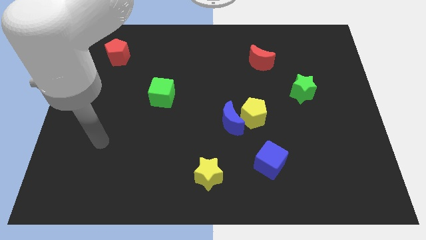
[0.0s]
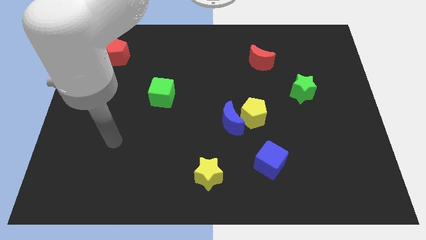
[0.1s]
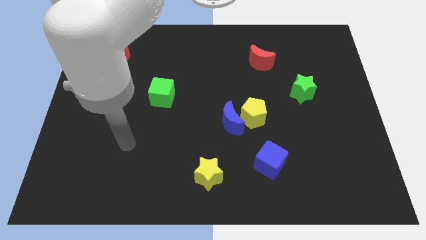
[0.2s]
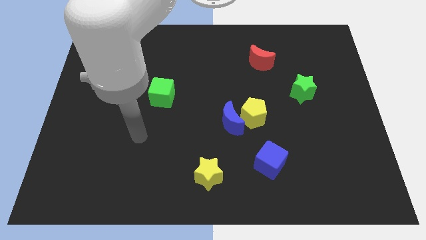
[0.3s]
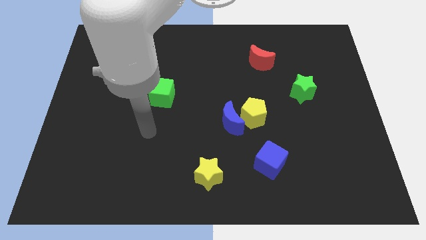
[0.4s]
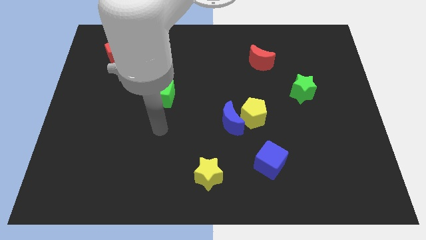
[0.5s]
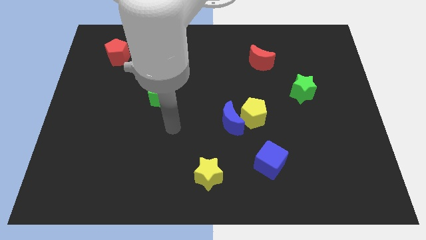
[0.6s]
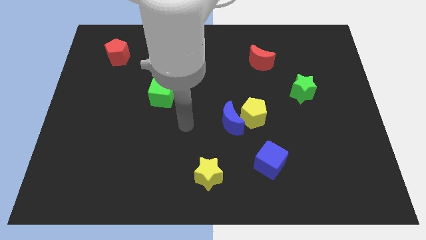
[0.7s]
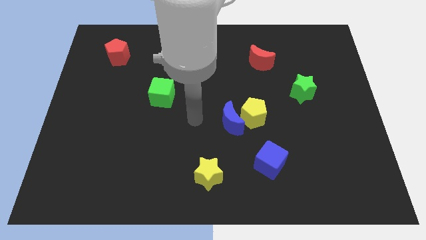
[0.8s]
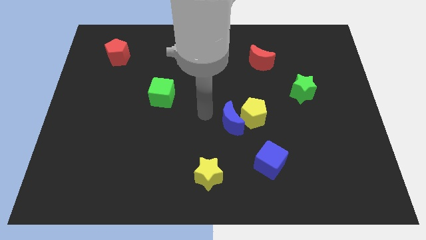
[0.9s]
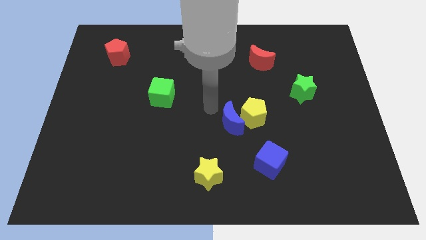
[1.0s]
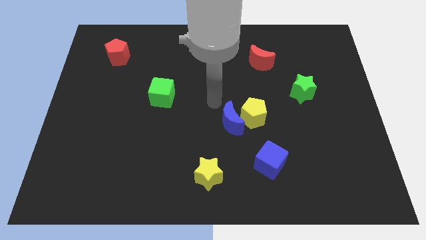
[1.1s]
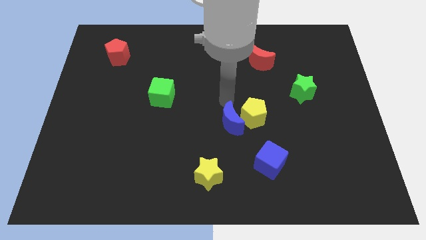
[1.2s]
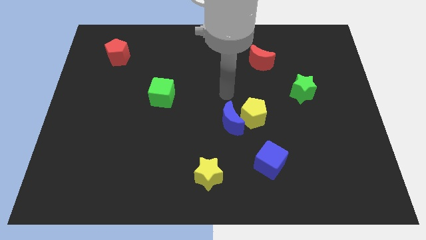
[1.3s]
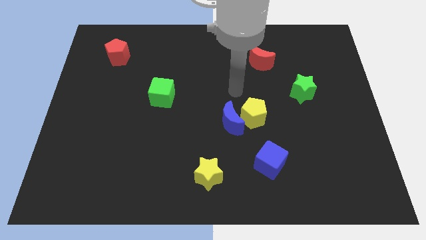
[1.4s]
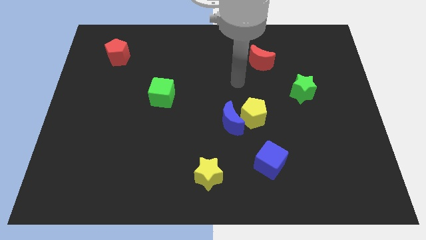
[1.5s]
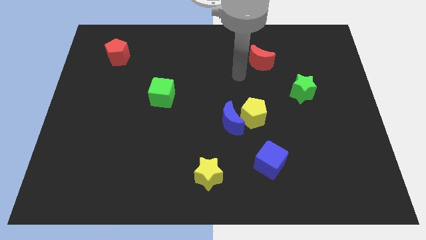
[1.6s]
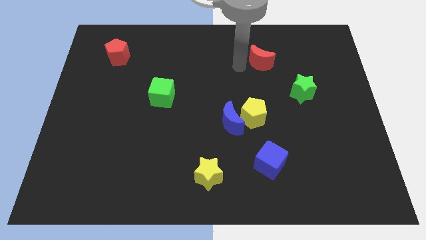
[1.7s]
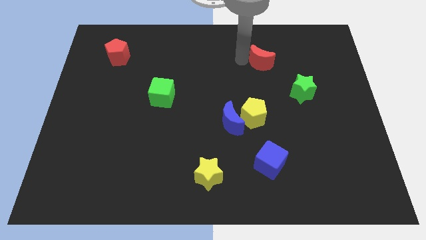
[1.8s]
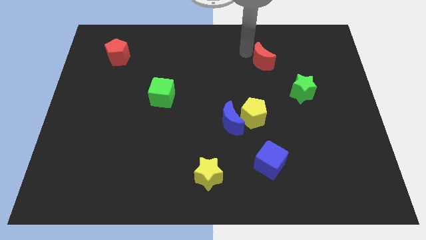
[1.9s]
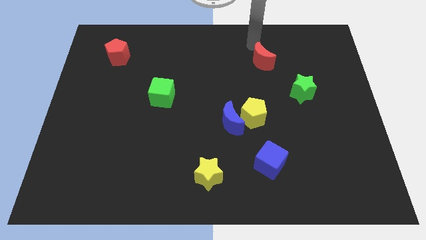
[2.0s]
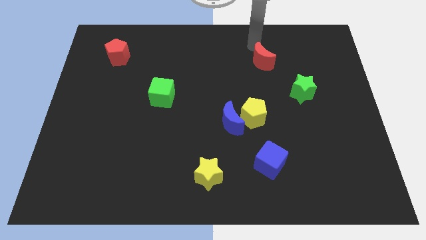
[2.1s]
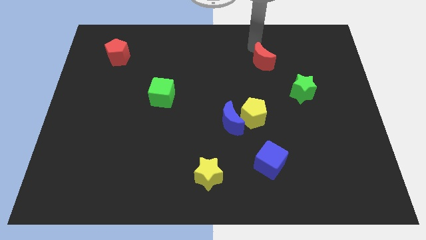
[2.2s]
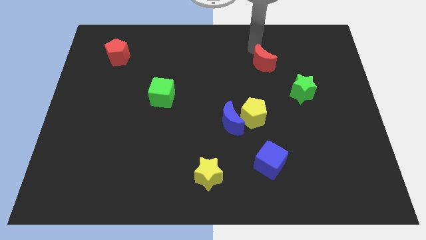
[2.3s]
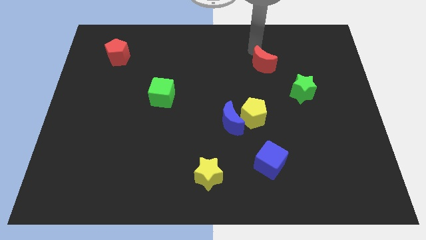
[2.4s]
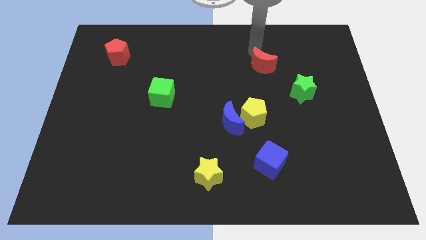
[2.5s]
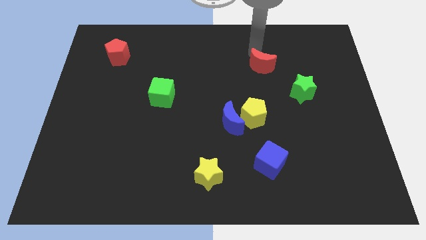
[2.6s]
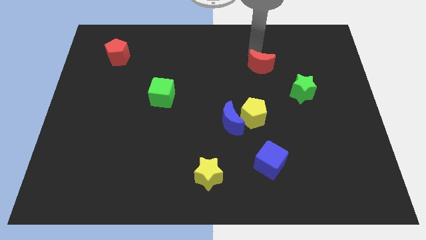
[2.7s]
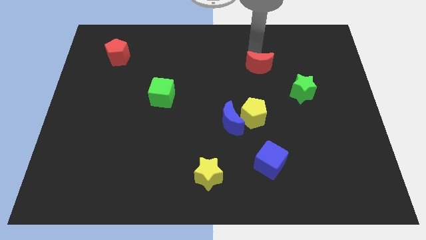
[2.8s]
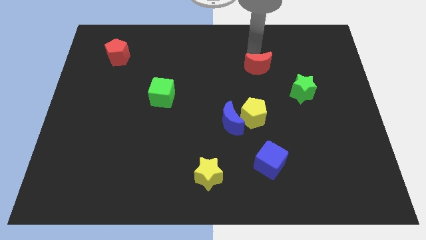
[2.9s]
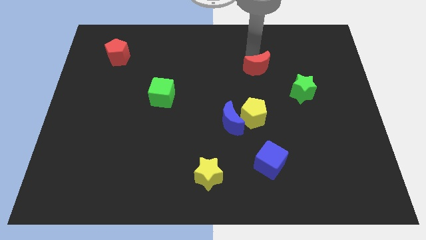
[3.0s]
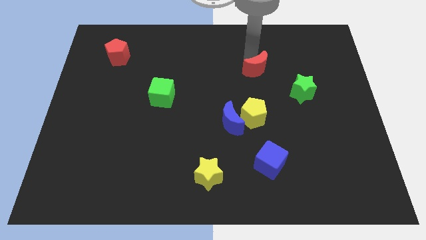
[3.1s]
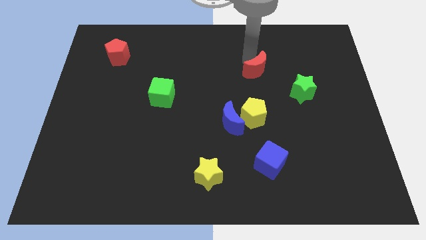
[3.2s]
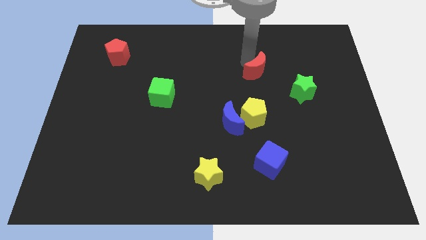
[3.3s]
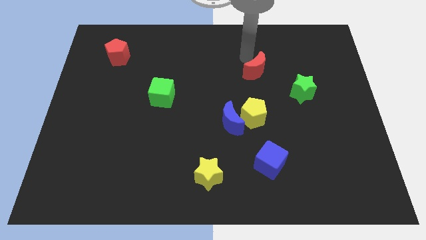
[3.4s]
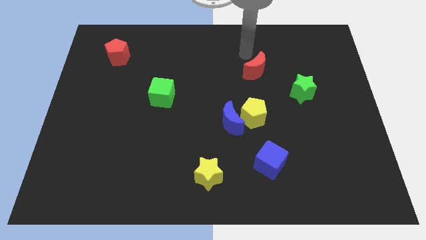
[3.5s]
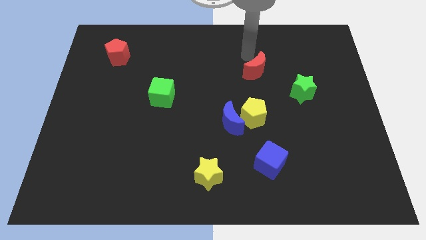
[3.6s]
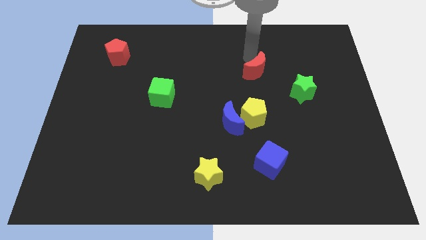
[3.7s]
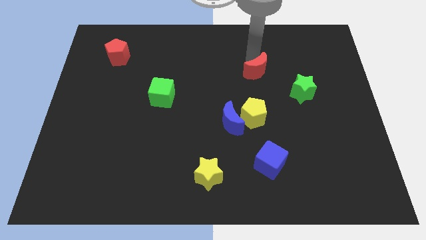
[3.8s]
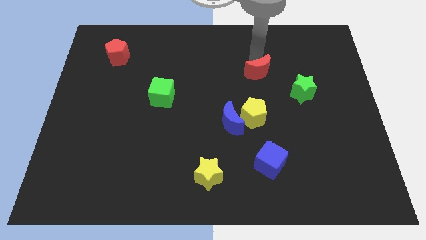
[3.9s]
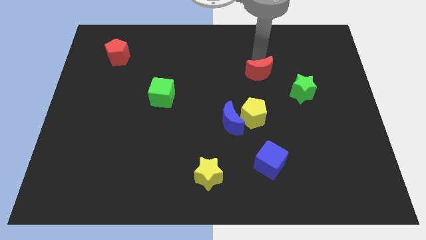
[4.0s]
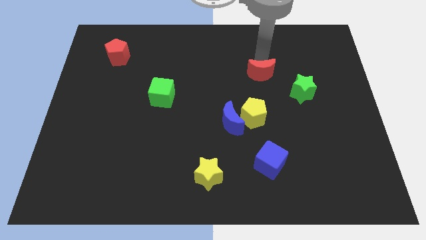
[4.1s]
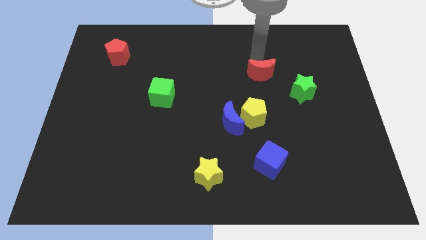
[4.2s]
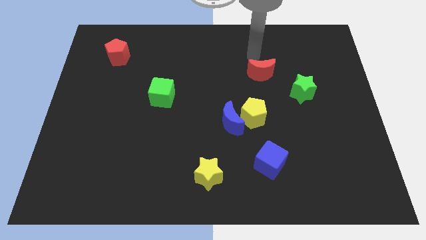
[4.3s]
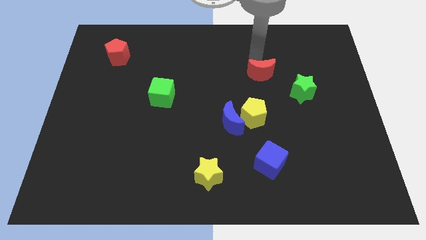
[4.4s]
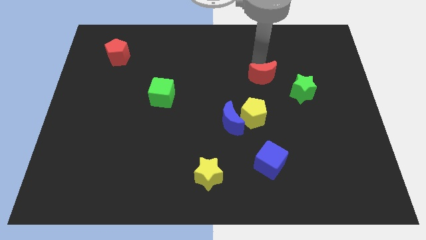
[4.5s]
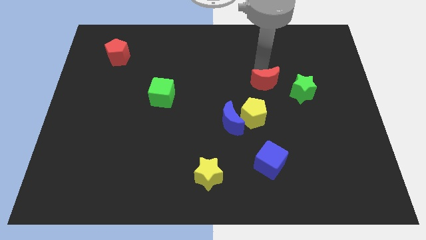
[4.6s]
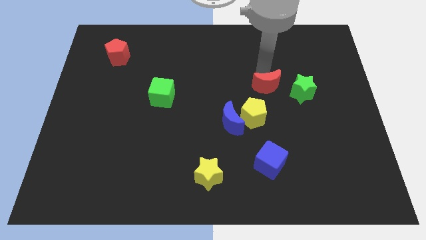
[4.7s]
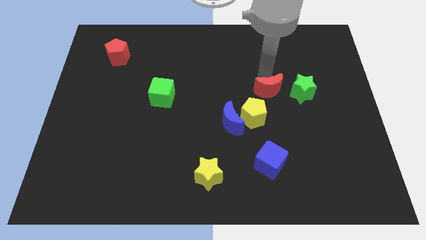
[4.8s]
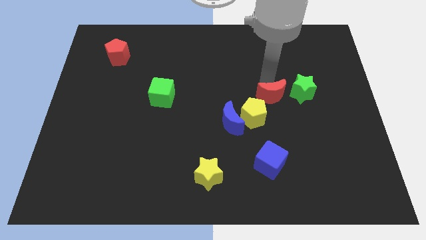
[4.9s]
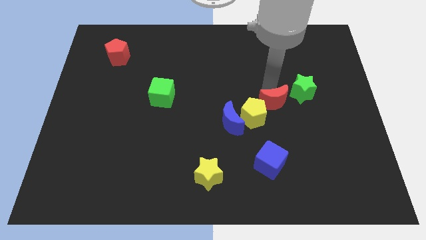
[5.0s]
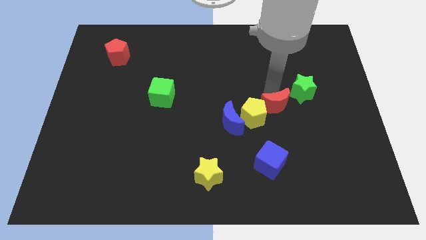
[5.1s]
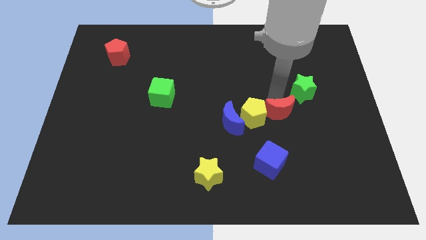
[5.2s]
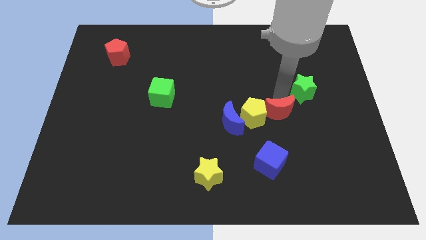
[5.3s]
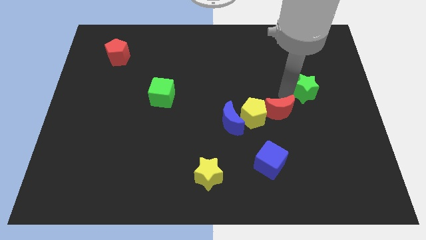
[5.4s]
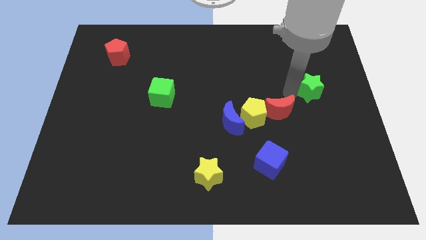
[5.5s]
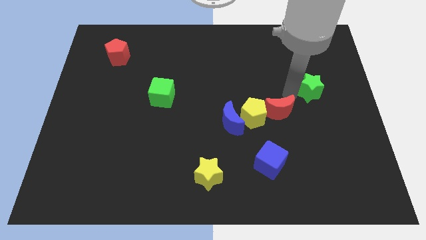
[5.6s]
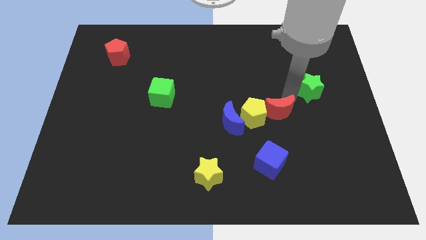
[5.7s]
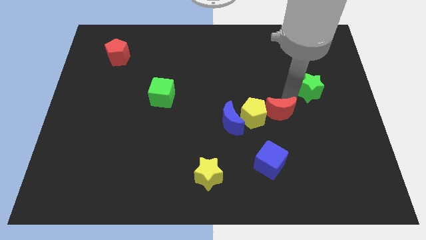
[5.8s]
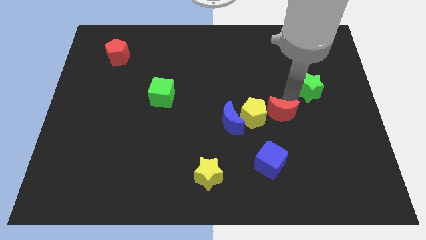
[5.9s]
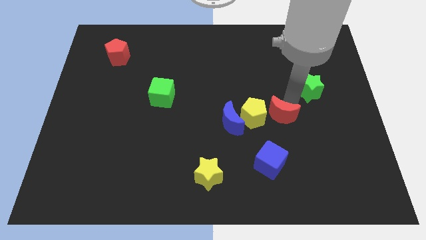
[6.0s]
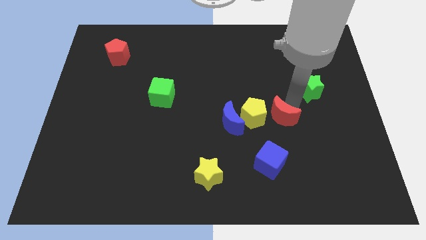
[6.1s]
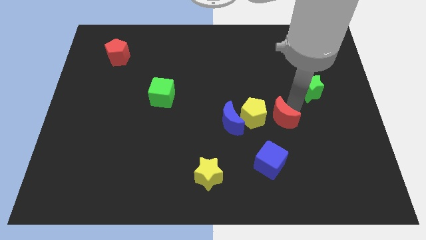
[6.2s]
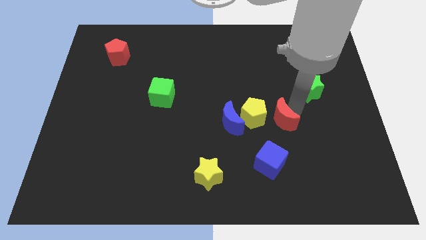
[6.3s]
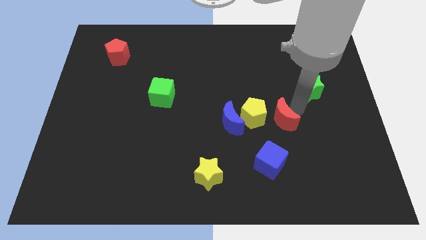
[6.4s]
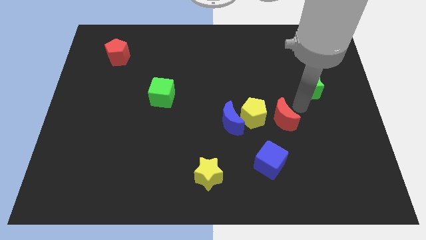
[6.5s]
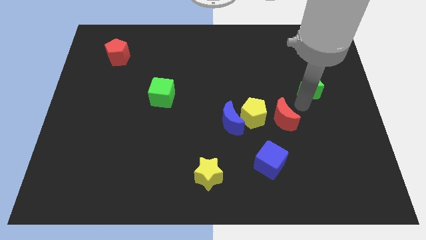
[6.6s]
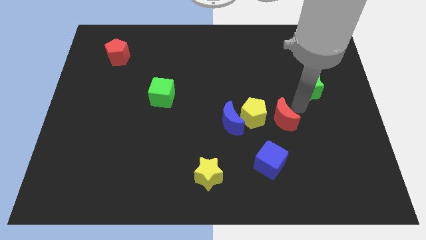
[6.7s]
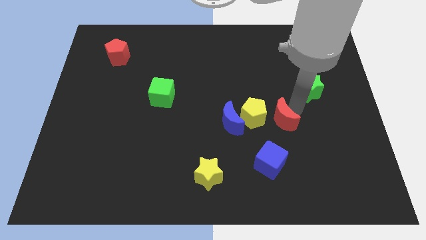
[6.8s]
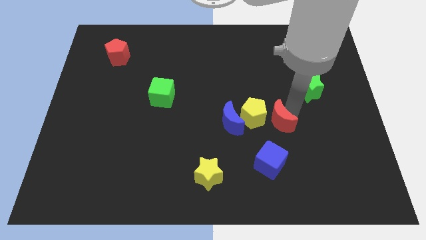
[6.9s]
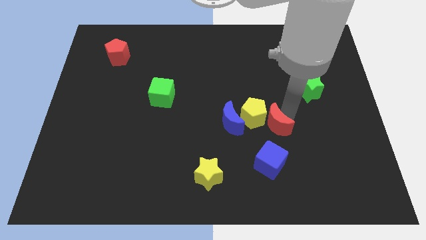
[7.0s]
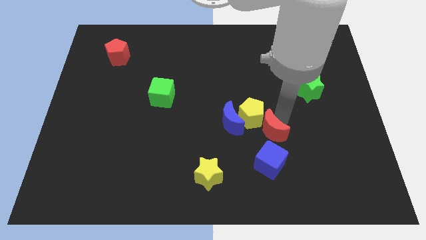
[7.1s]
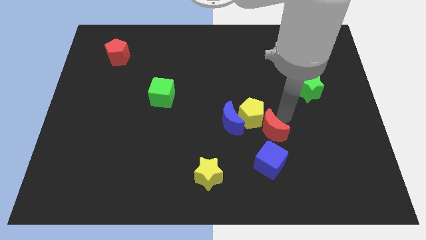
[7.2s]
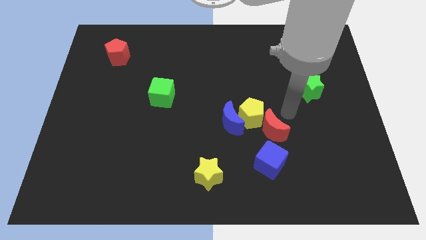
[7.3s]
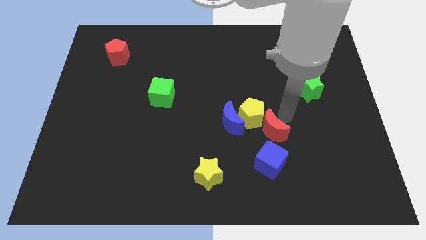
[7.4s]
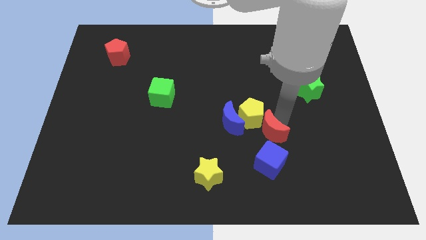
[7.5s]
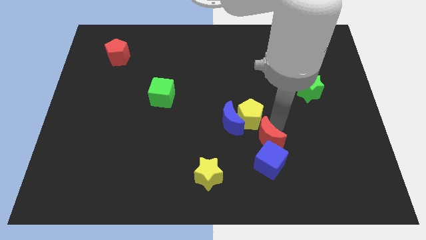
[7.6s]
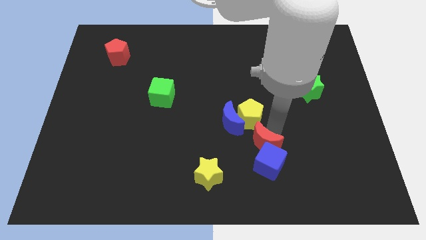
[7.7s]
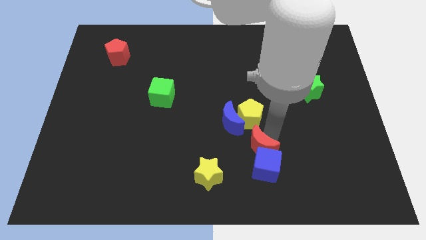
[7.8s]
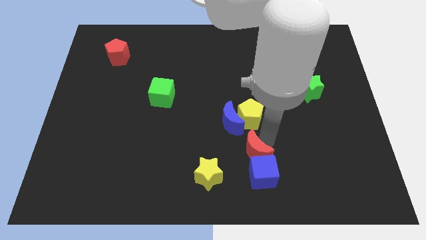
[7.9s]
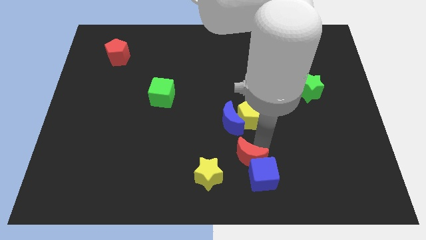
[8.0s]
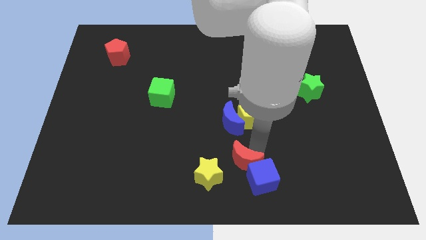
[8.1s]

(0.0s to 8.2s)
move the red moon to the bottom
